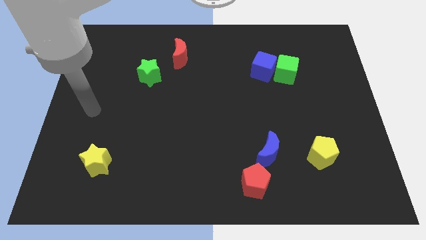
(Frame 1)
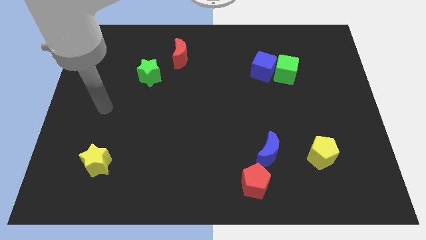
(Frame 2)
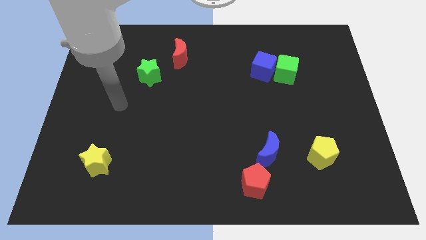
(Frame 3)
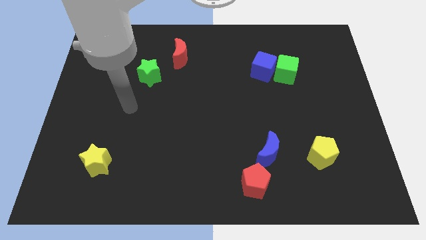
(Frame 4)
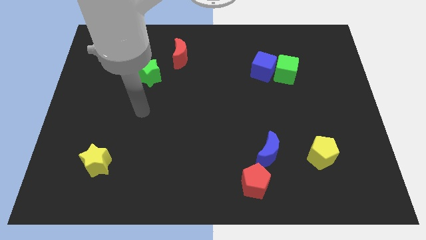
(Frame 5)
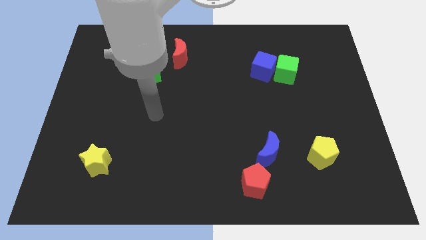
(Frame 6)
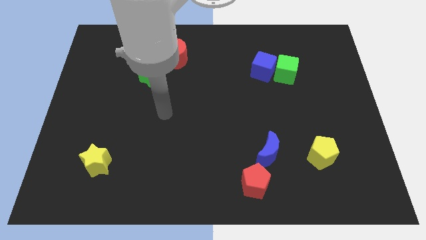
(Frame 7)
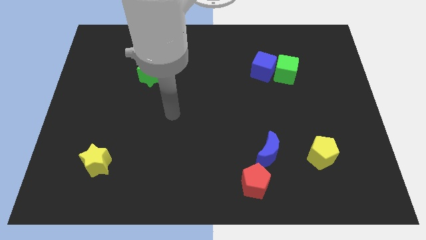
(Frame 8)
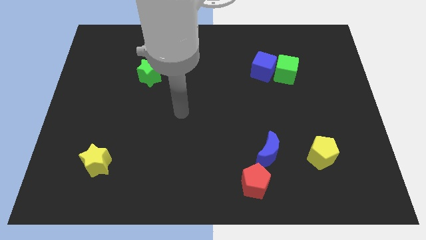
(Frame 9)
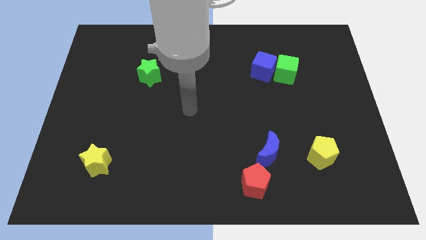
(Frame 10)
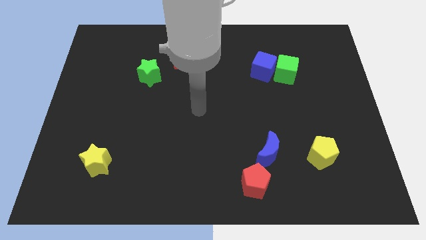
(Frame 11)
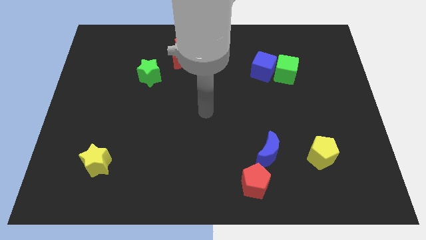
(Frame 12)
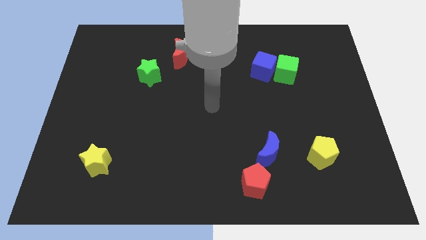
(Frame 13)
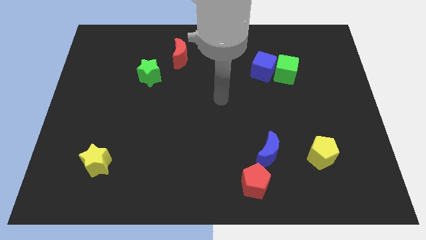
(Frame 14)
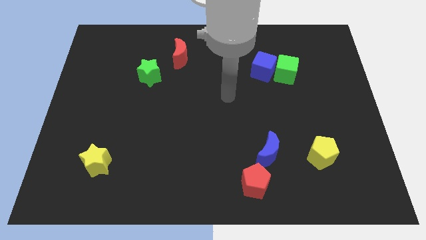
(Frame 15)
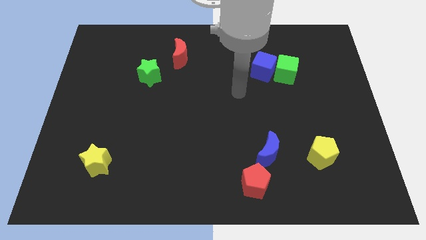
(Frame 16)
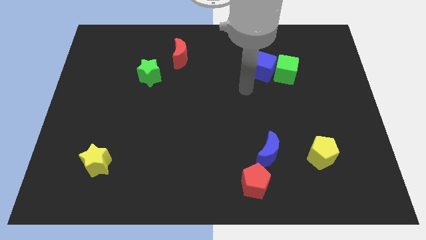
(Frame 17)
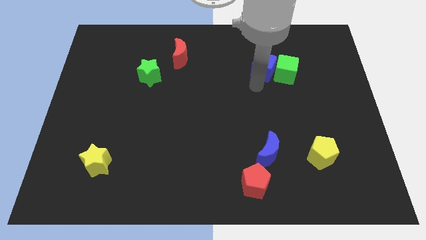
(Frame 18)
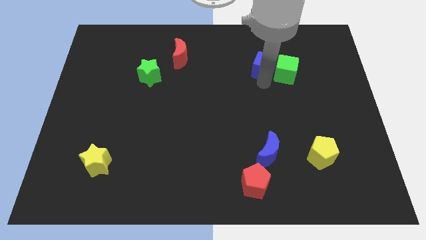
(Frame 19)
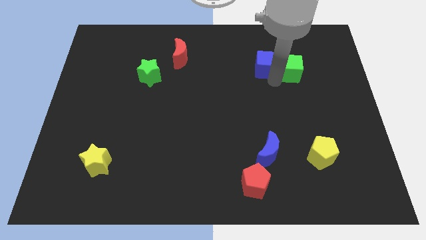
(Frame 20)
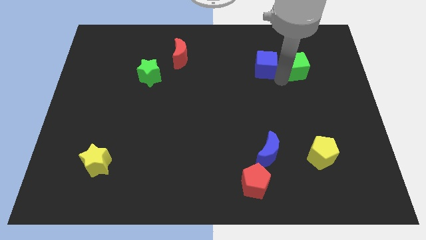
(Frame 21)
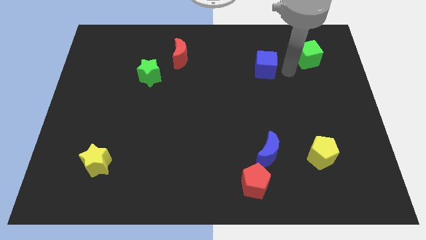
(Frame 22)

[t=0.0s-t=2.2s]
pull the blue cube apart from the green cube

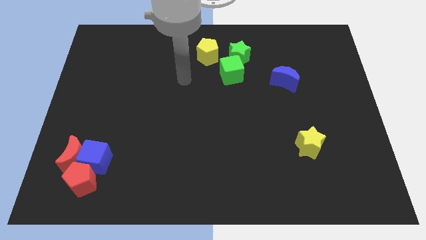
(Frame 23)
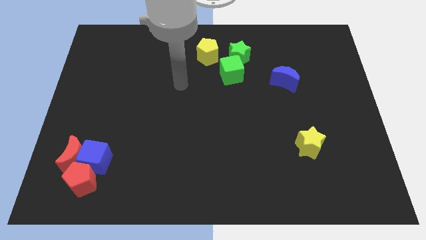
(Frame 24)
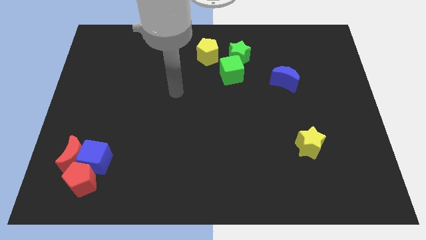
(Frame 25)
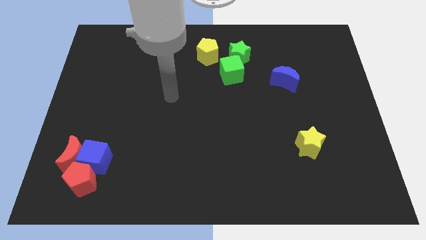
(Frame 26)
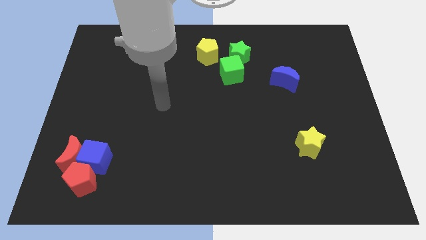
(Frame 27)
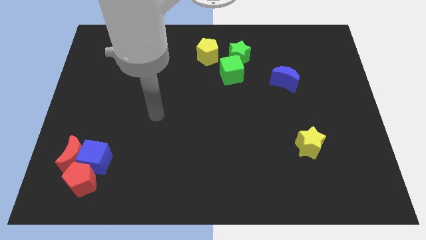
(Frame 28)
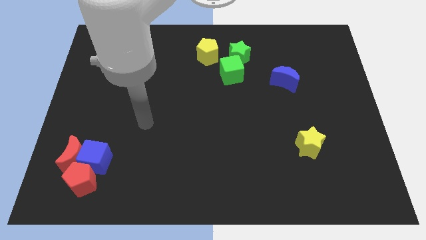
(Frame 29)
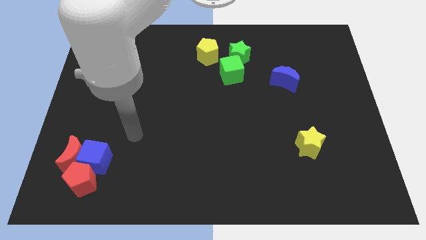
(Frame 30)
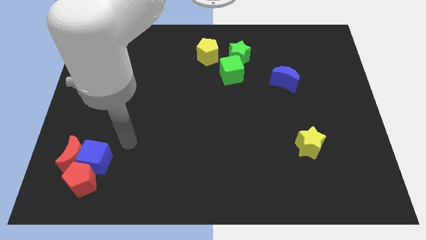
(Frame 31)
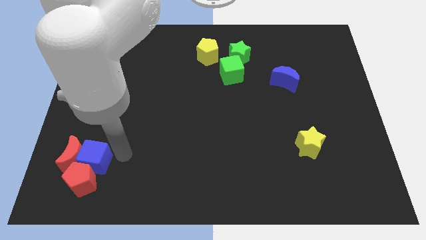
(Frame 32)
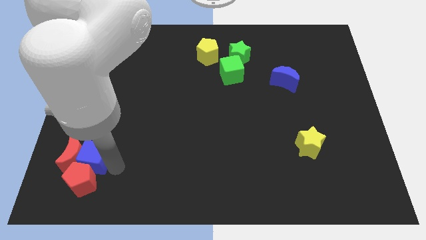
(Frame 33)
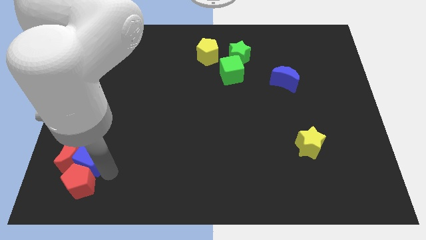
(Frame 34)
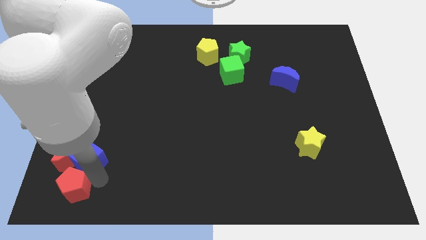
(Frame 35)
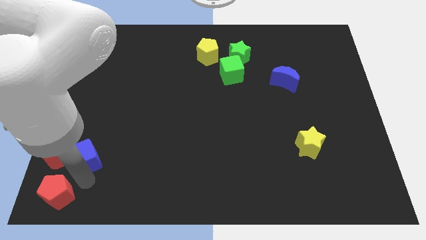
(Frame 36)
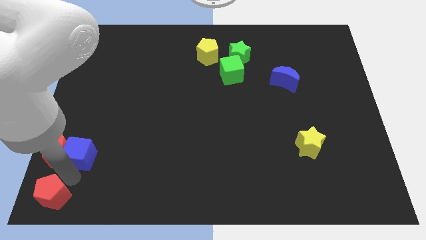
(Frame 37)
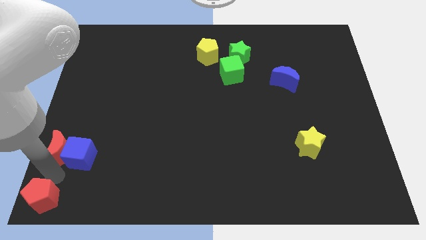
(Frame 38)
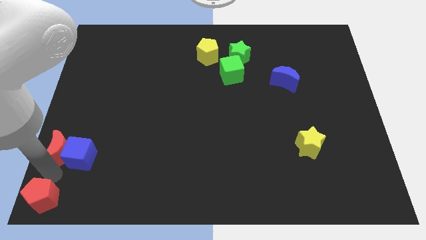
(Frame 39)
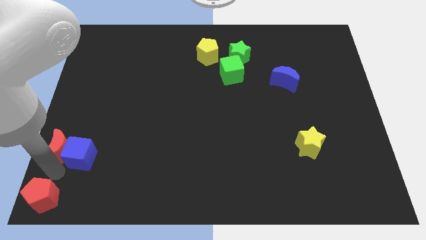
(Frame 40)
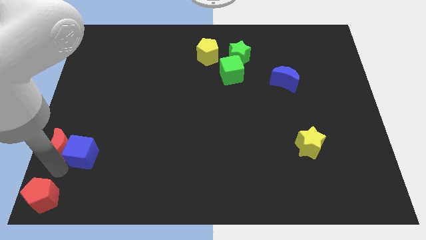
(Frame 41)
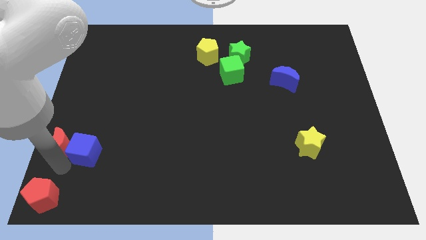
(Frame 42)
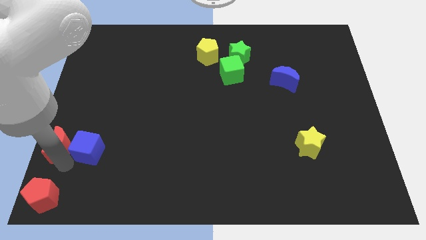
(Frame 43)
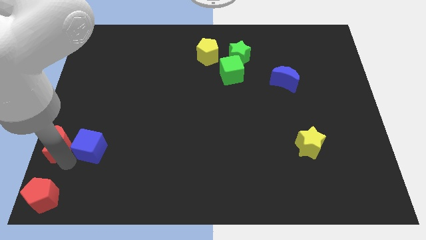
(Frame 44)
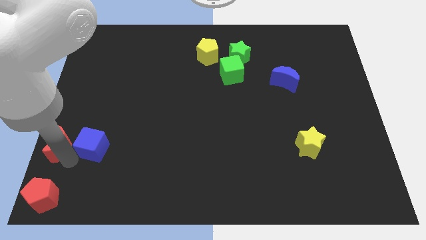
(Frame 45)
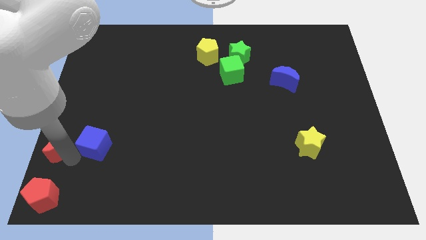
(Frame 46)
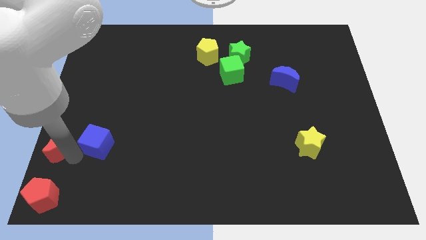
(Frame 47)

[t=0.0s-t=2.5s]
move the blue cube away from the red moon and red pentagon

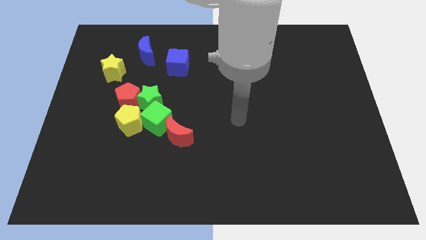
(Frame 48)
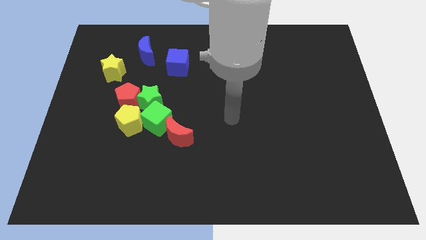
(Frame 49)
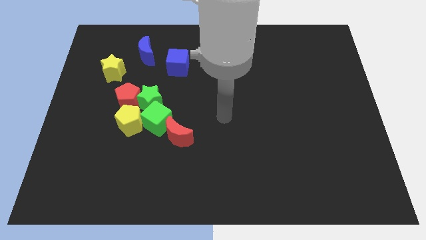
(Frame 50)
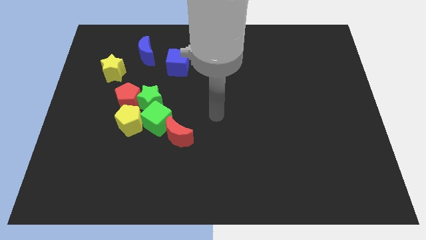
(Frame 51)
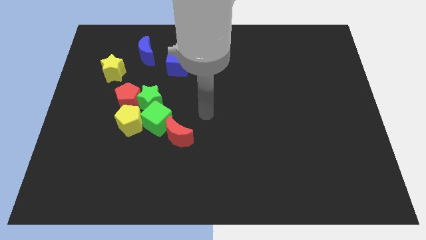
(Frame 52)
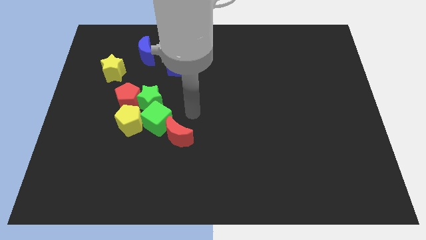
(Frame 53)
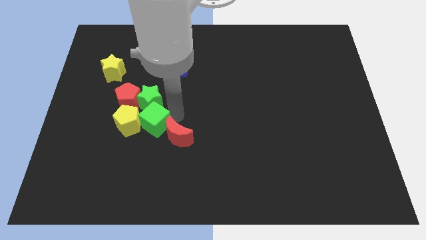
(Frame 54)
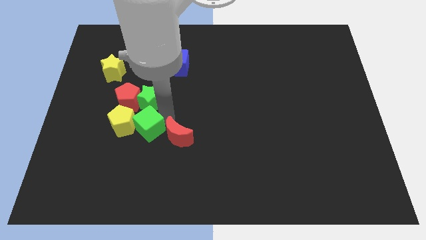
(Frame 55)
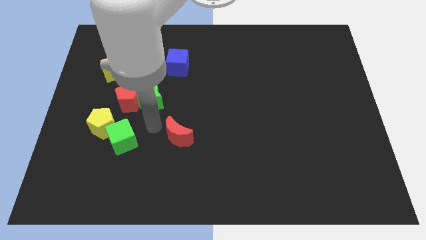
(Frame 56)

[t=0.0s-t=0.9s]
separate the red moon from the green cube

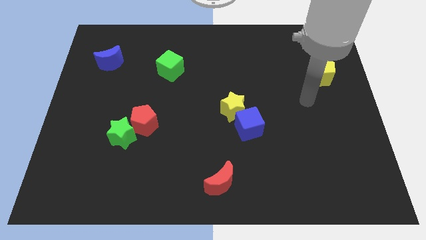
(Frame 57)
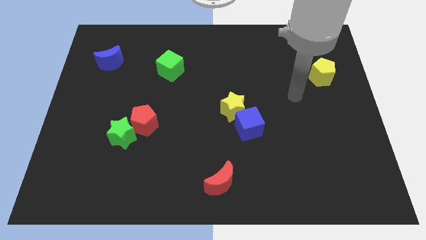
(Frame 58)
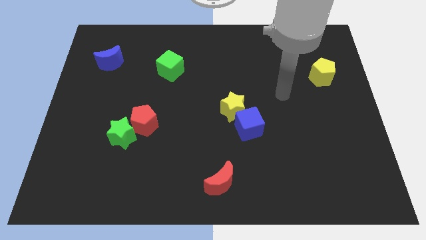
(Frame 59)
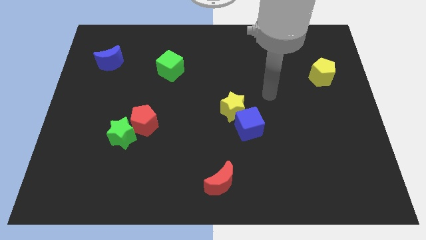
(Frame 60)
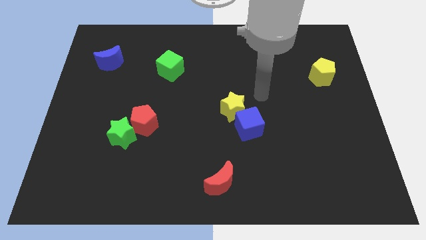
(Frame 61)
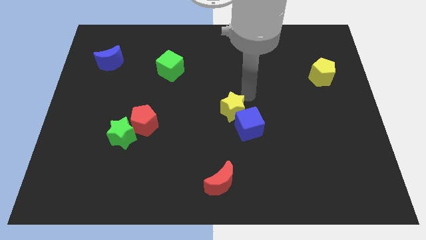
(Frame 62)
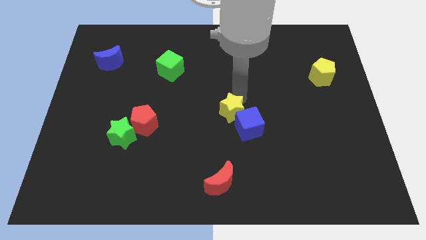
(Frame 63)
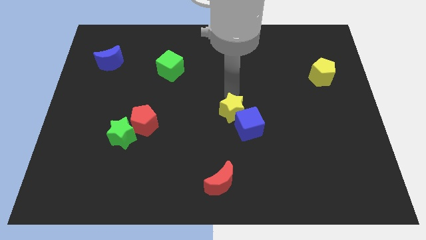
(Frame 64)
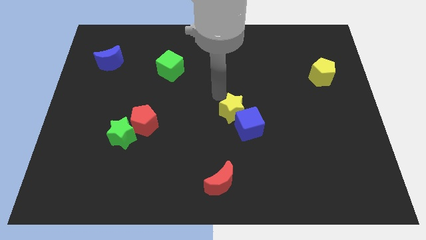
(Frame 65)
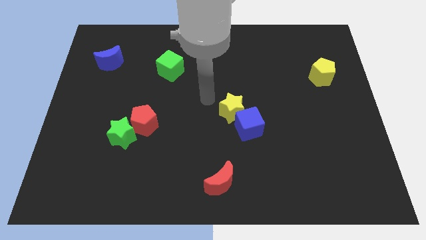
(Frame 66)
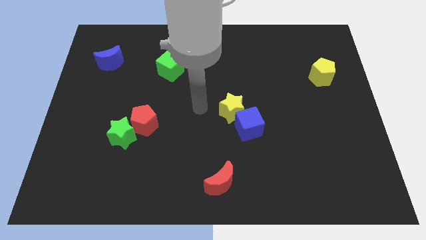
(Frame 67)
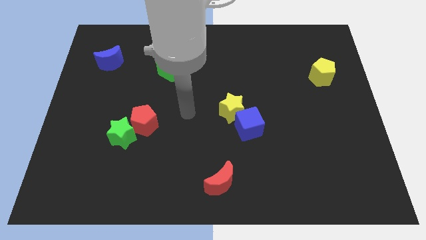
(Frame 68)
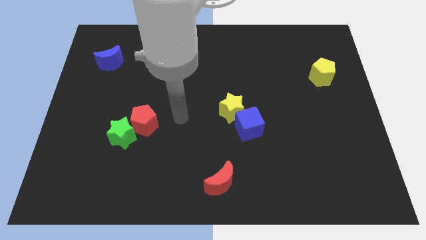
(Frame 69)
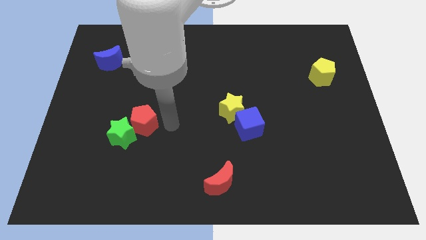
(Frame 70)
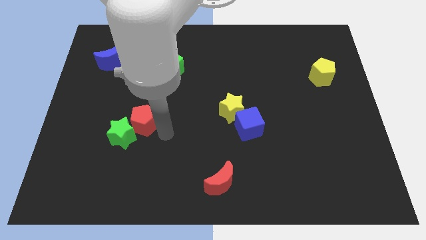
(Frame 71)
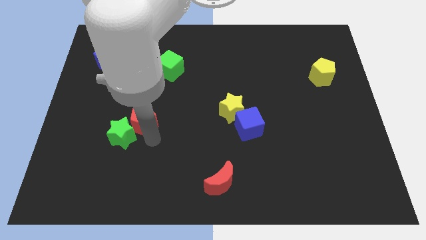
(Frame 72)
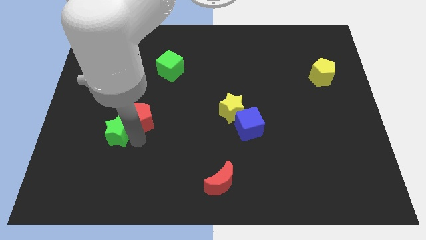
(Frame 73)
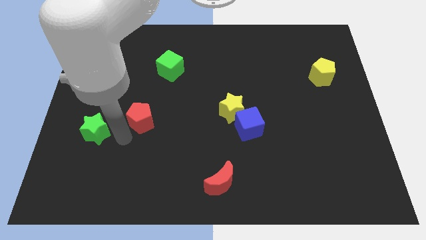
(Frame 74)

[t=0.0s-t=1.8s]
separate the red pentagon from the green star

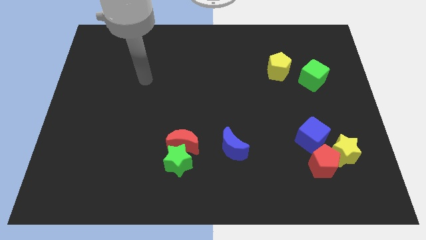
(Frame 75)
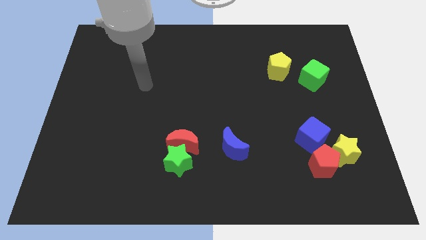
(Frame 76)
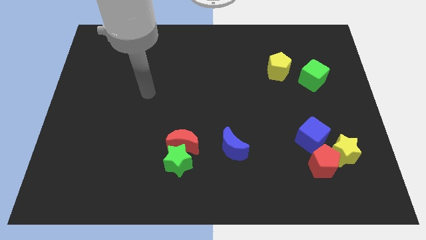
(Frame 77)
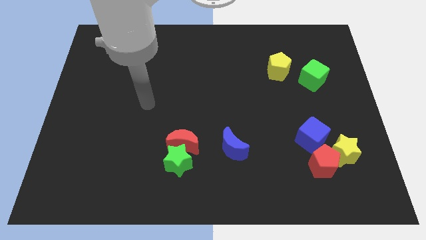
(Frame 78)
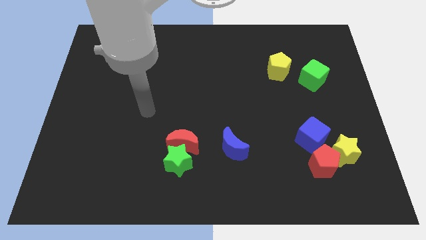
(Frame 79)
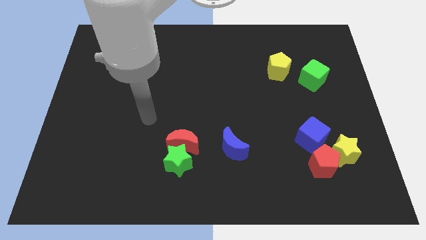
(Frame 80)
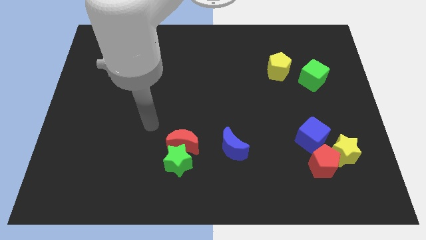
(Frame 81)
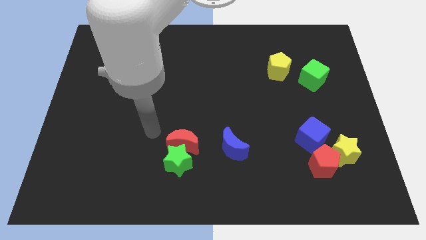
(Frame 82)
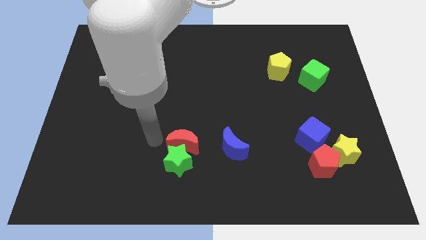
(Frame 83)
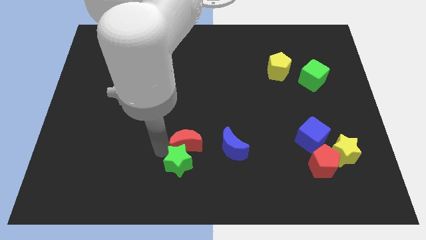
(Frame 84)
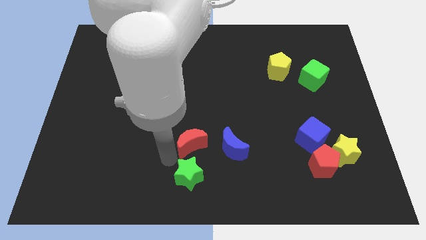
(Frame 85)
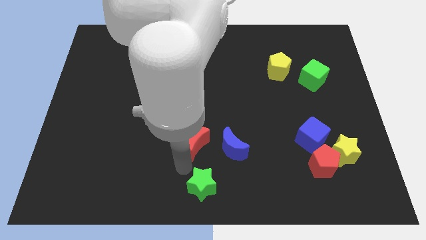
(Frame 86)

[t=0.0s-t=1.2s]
separate the red moon from the green star

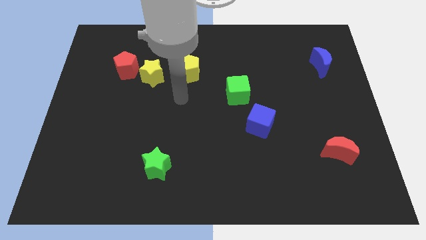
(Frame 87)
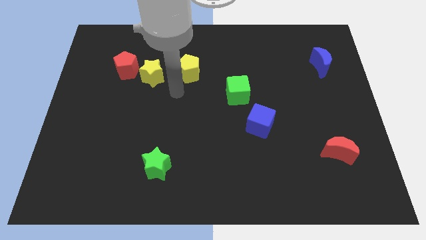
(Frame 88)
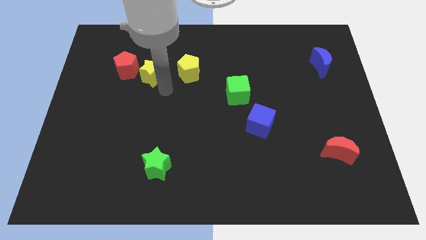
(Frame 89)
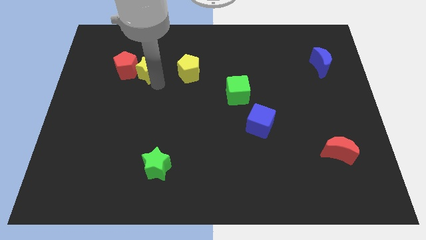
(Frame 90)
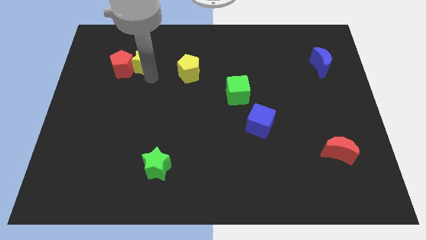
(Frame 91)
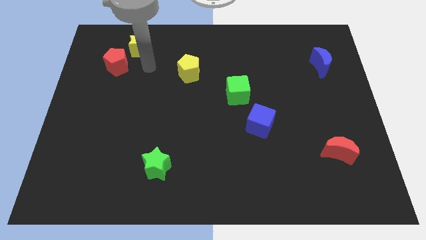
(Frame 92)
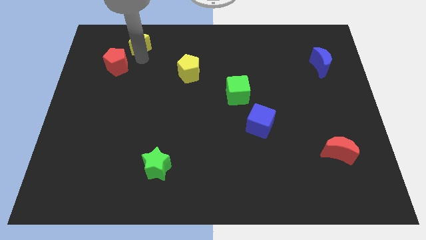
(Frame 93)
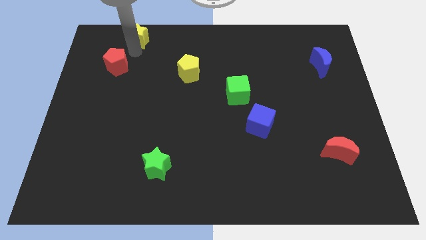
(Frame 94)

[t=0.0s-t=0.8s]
pull the red pentagon apart from the yellow star
